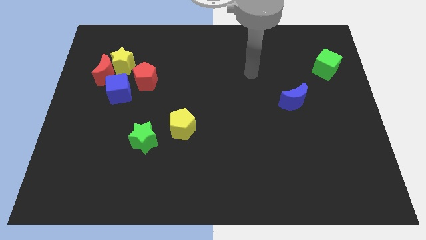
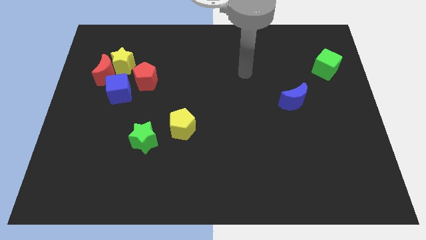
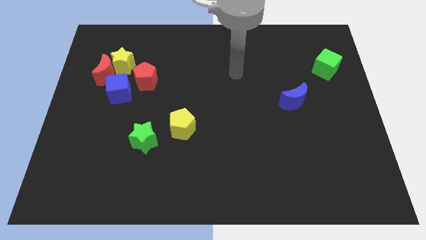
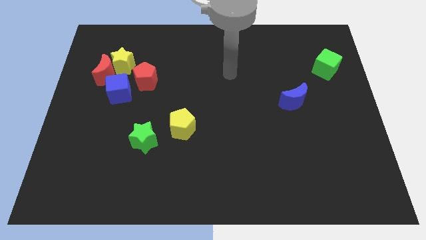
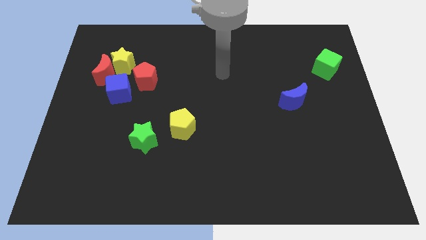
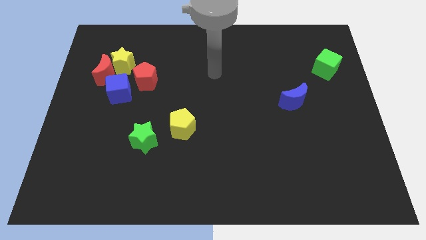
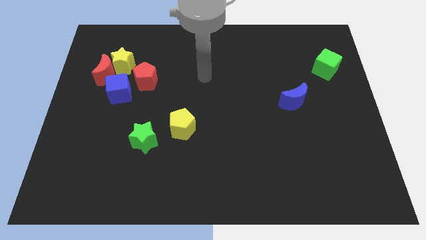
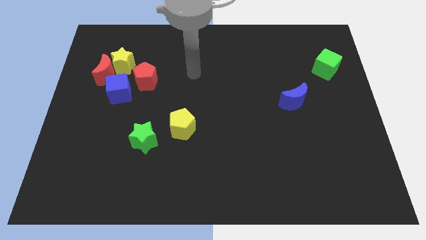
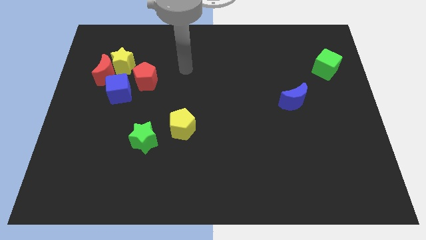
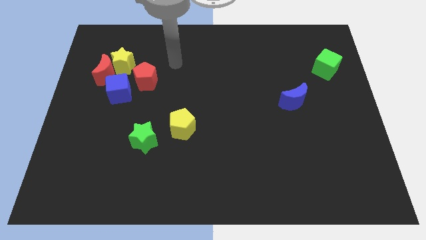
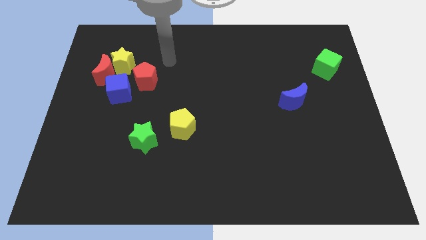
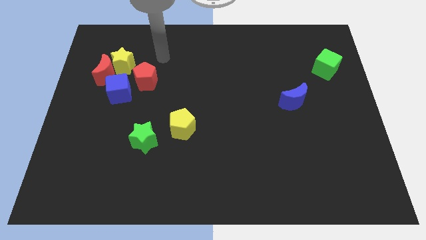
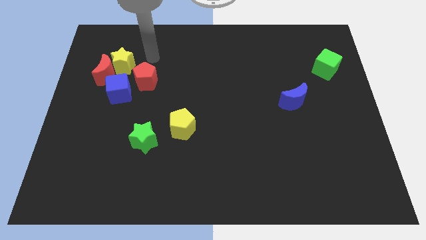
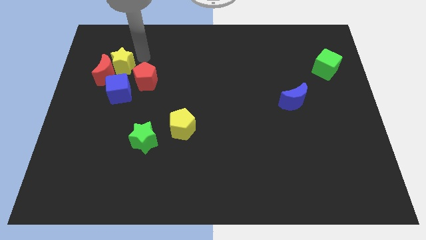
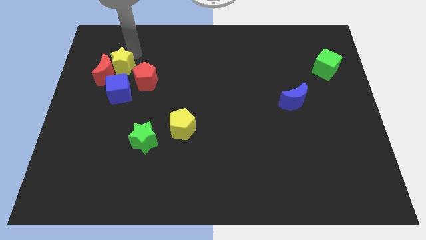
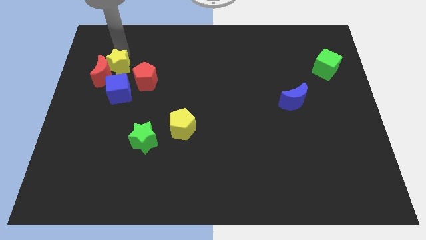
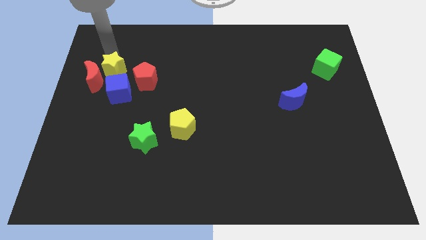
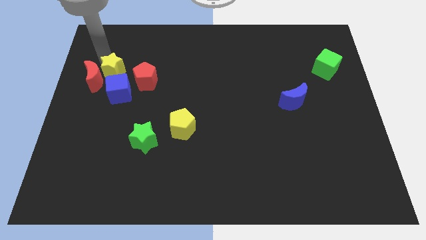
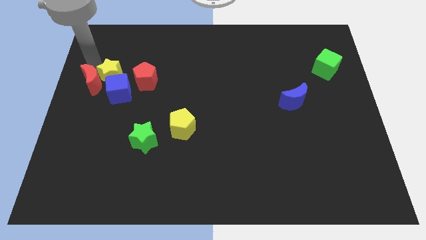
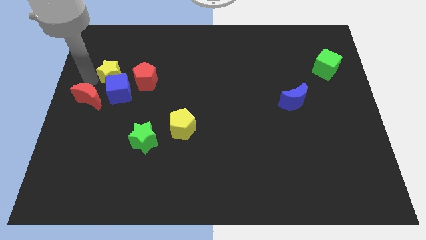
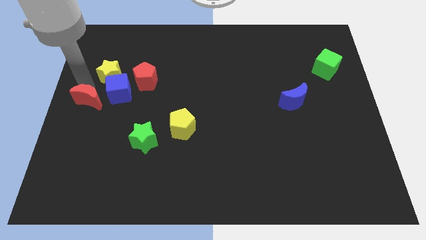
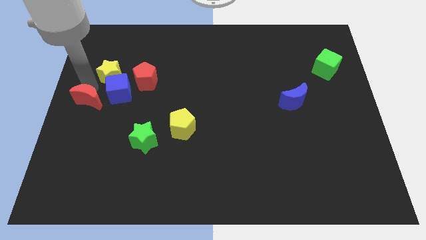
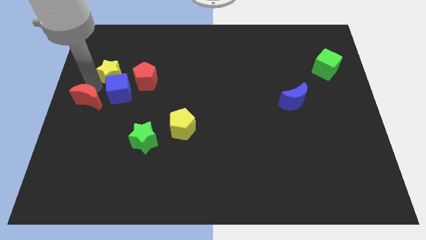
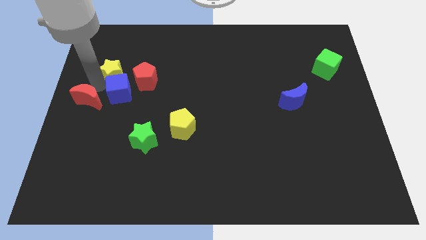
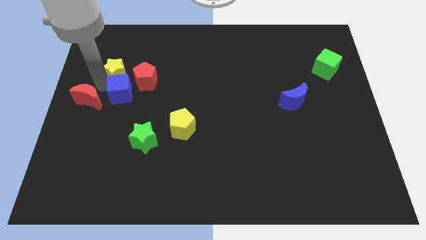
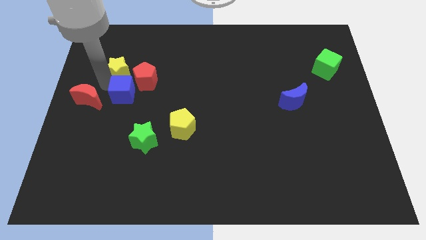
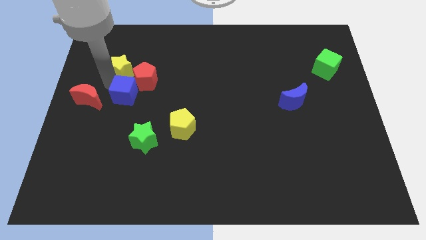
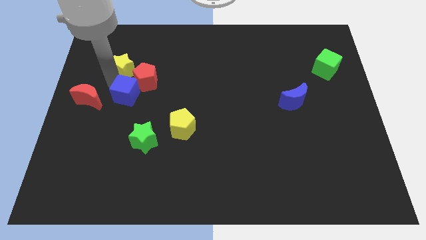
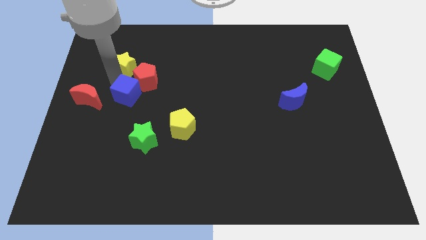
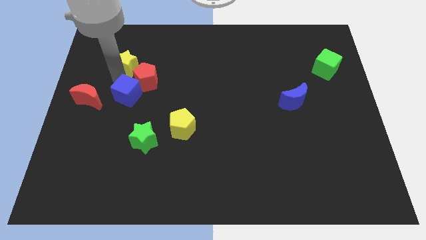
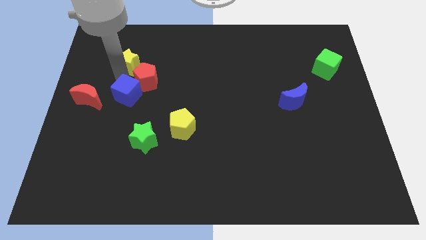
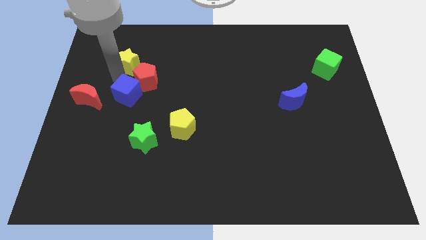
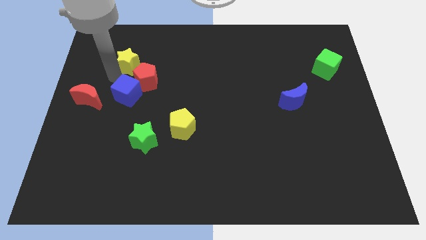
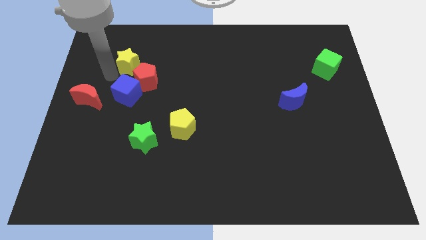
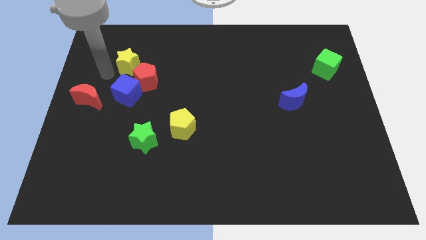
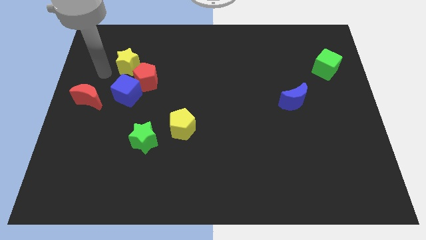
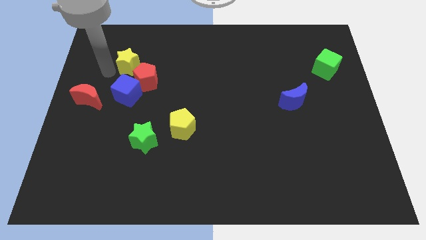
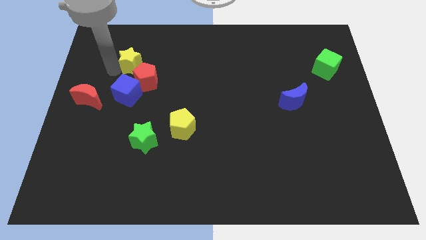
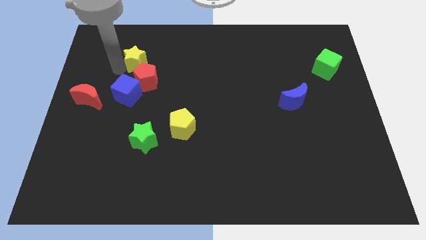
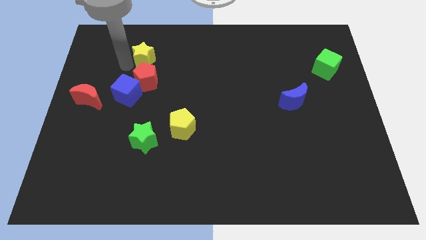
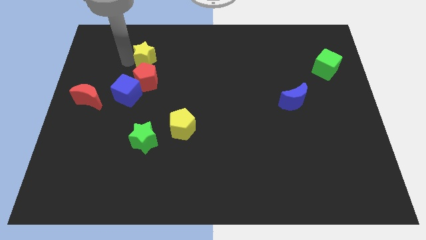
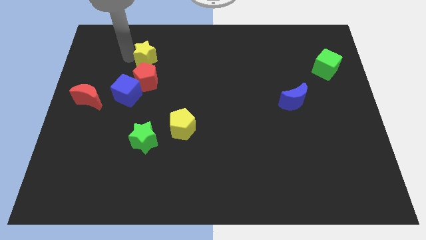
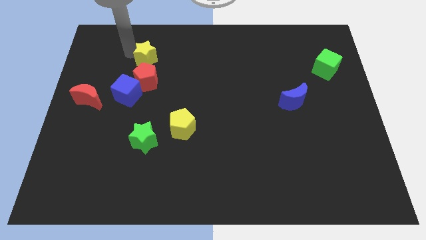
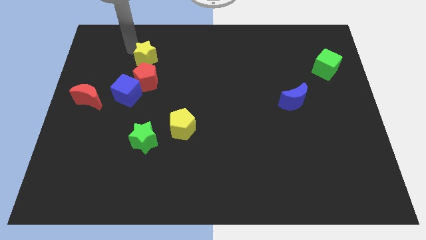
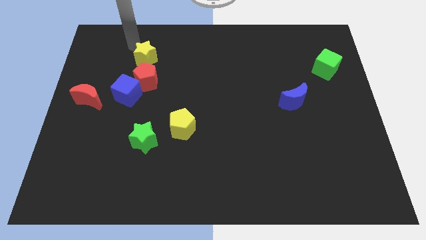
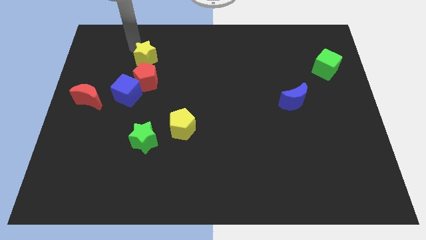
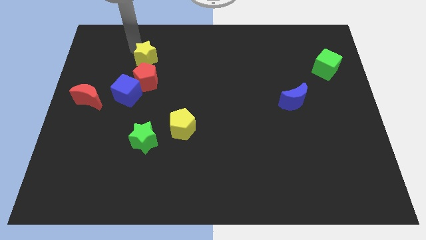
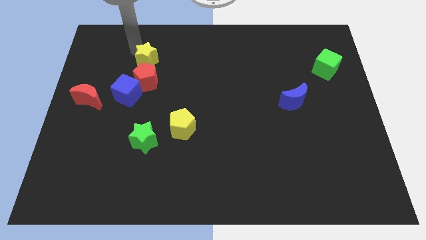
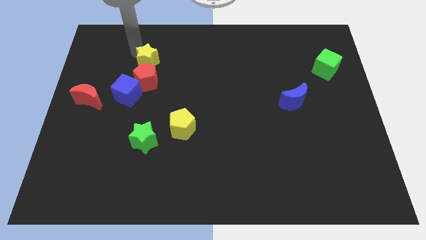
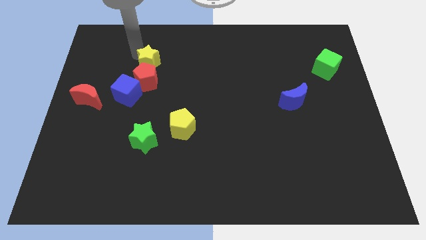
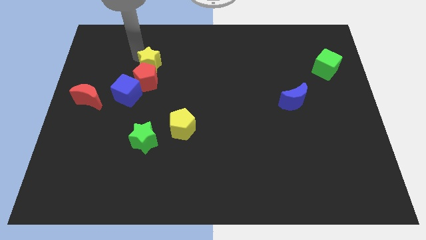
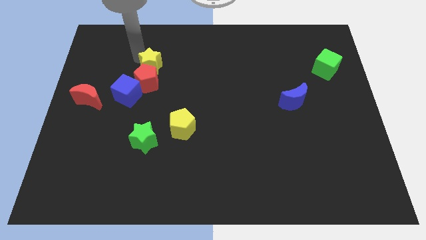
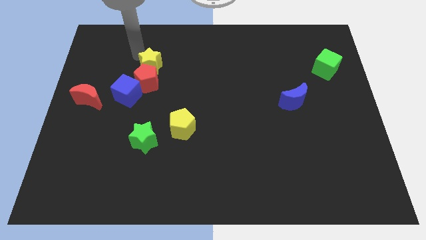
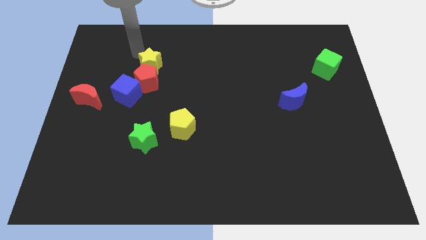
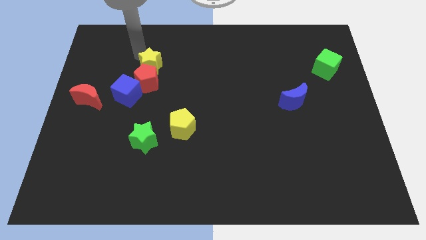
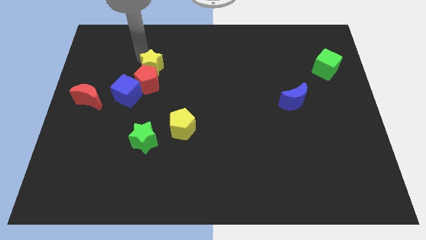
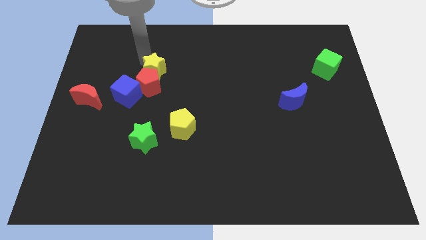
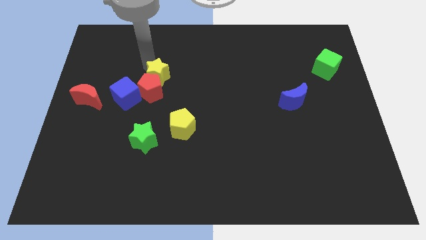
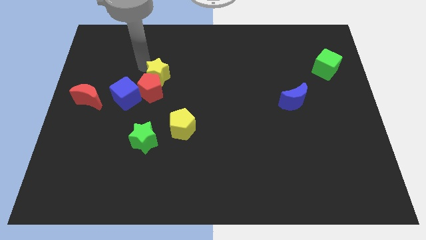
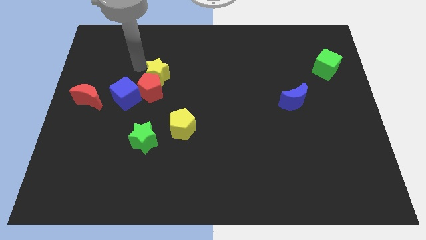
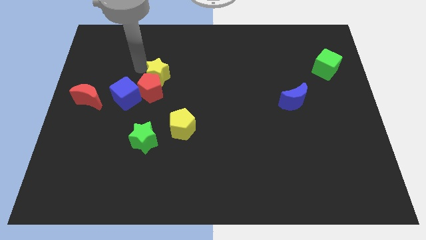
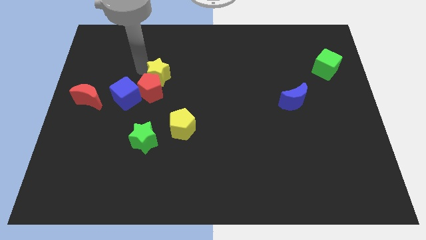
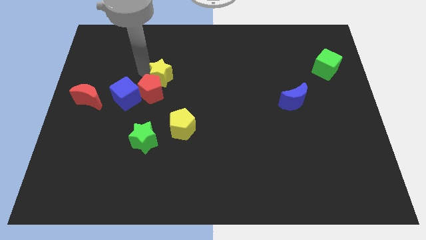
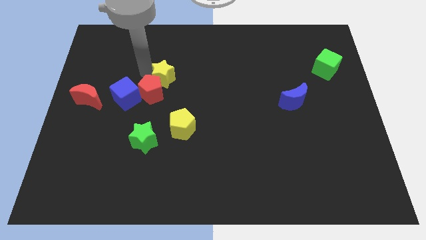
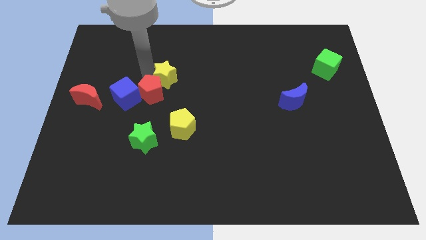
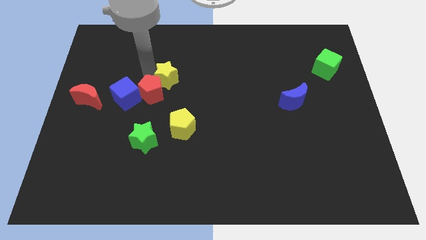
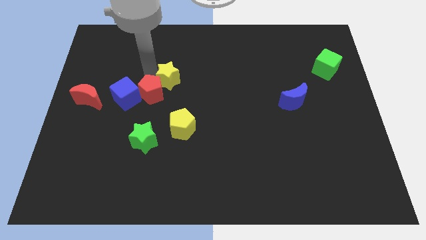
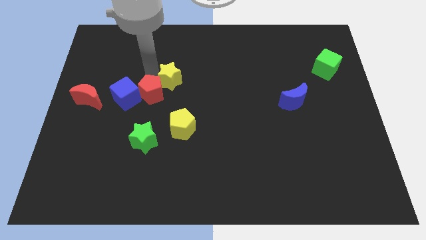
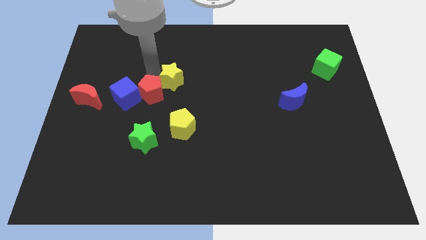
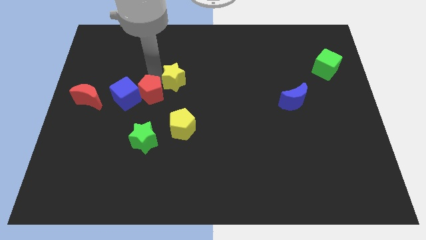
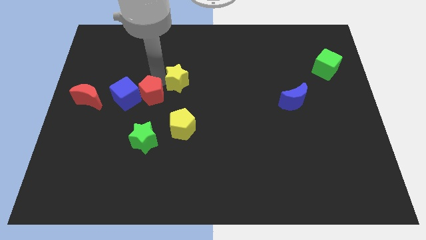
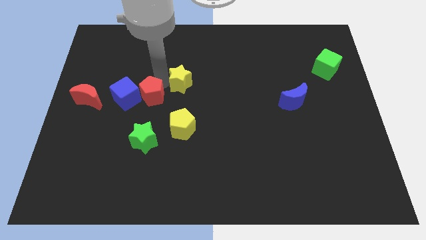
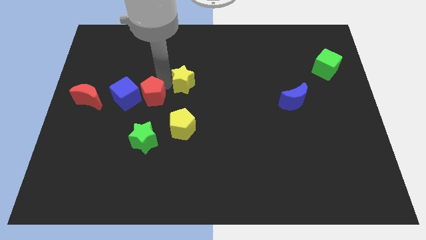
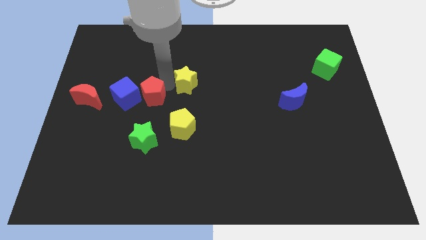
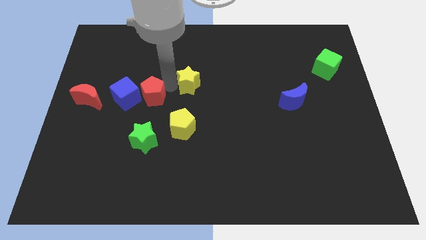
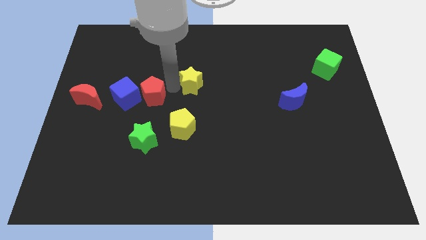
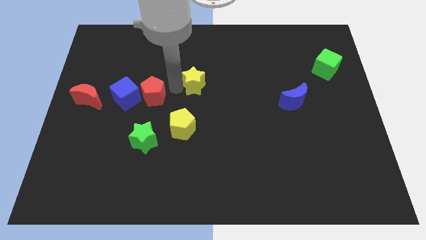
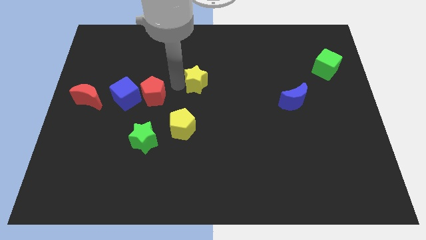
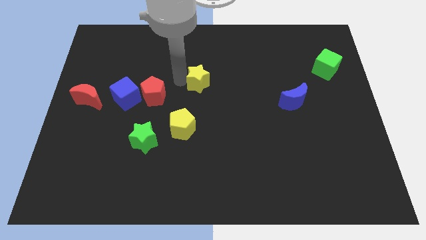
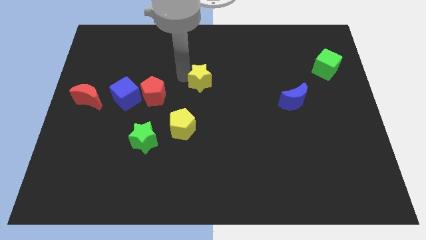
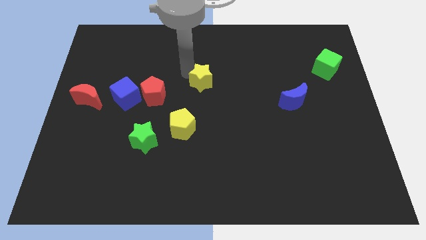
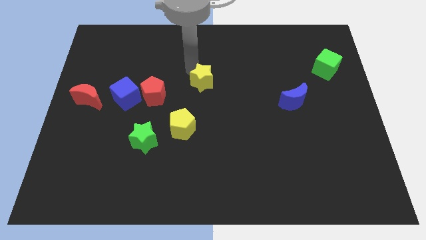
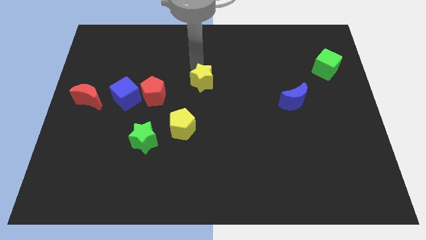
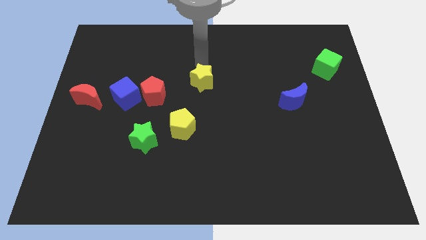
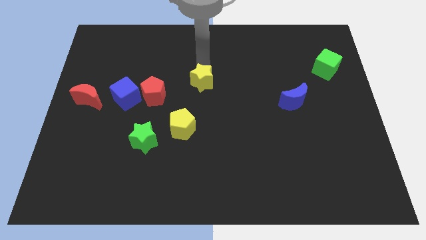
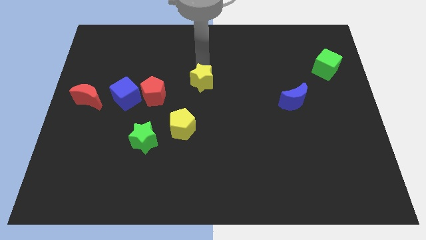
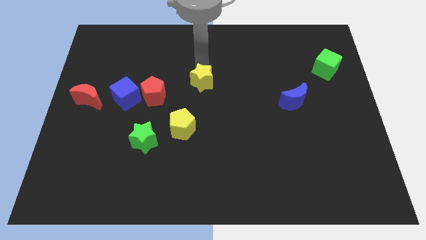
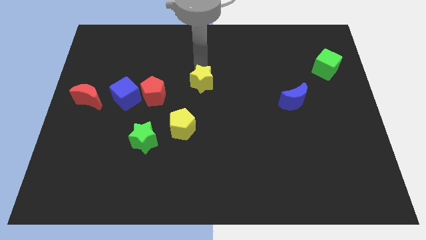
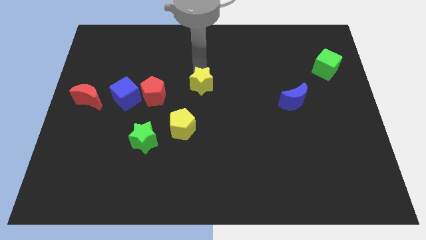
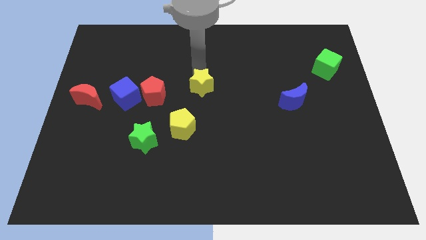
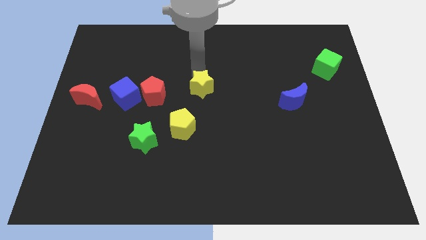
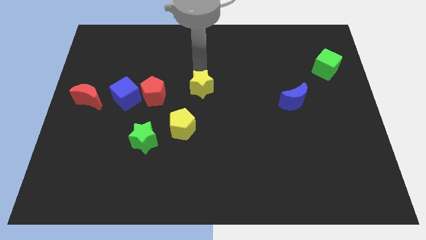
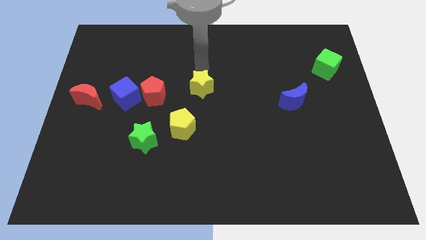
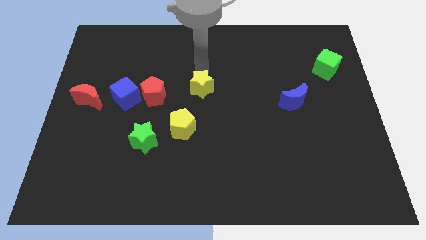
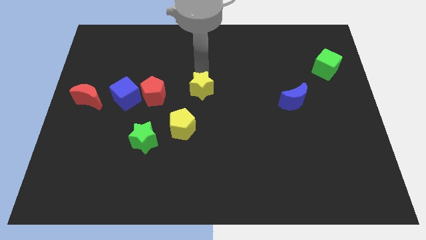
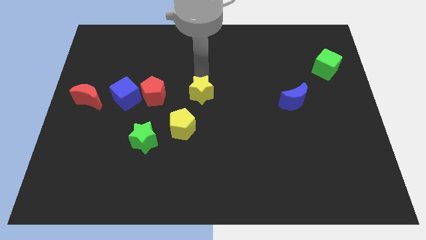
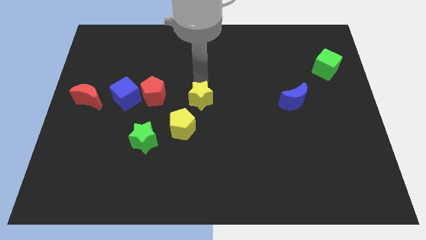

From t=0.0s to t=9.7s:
slide the yellow star downwards and to the right
